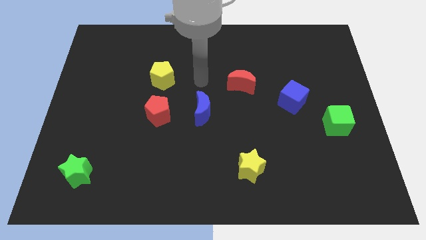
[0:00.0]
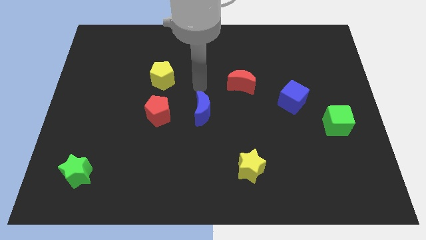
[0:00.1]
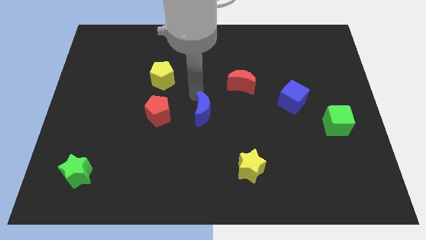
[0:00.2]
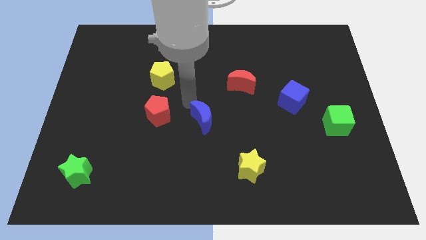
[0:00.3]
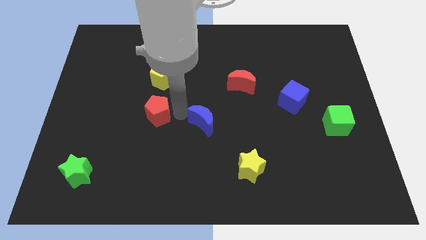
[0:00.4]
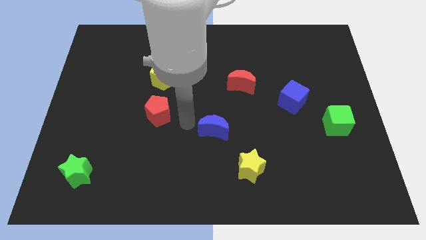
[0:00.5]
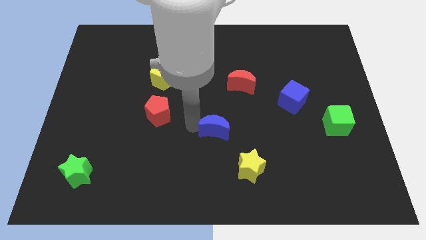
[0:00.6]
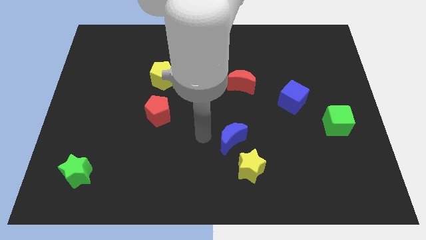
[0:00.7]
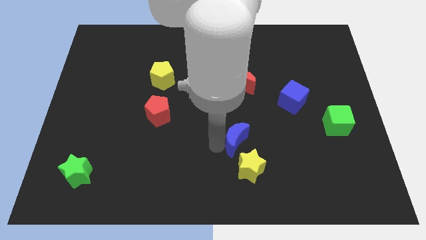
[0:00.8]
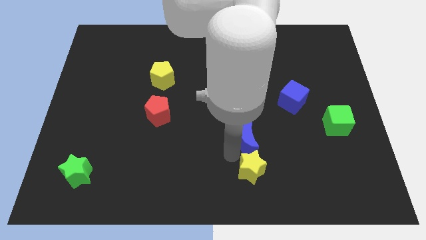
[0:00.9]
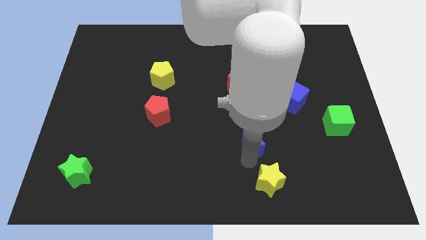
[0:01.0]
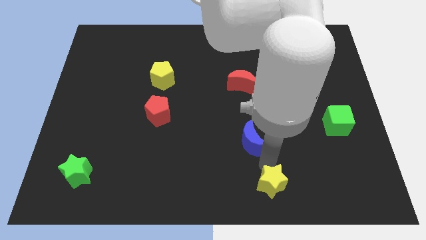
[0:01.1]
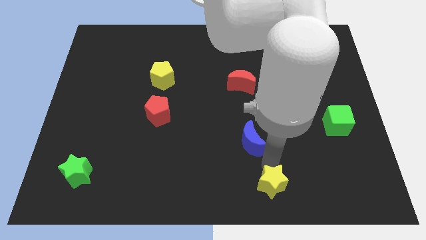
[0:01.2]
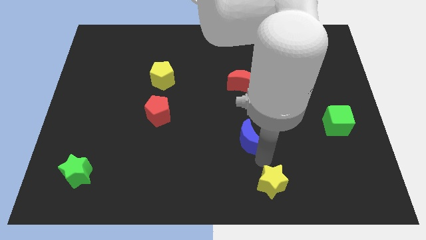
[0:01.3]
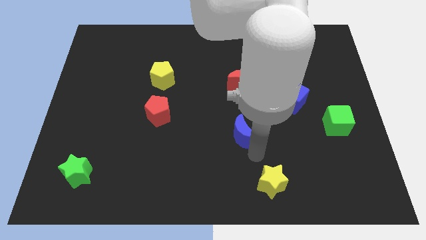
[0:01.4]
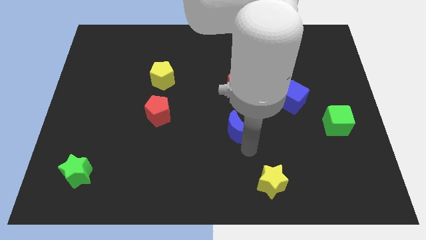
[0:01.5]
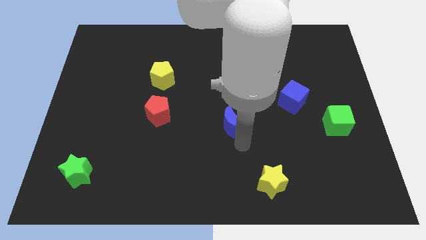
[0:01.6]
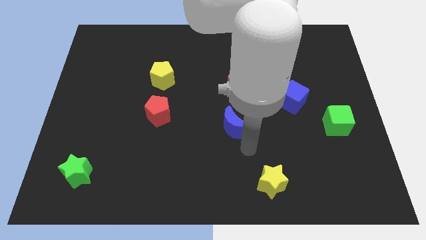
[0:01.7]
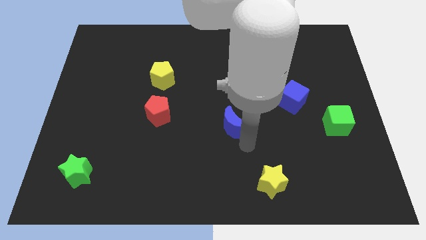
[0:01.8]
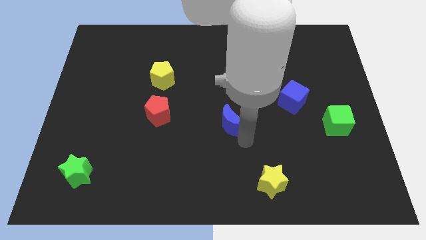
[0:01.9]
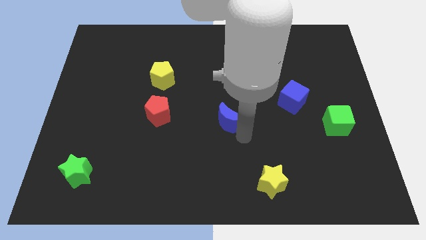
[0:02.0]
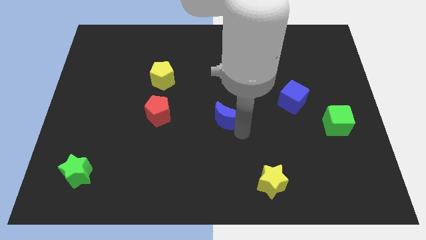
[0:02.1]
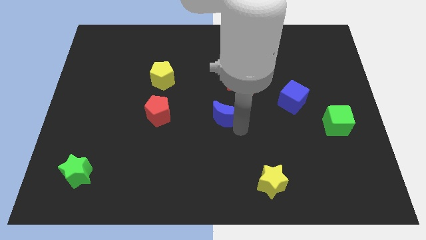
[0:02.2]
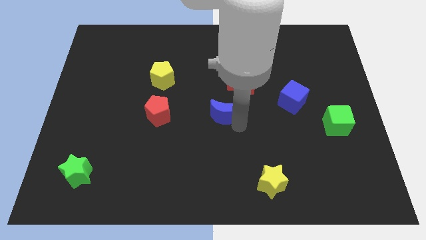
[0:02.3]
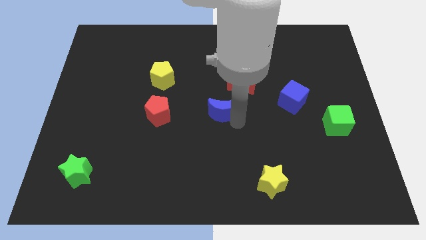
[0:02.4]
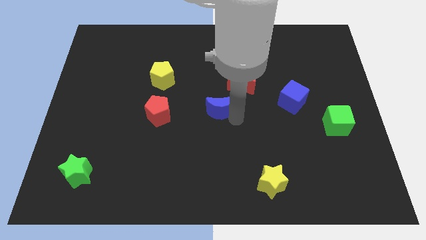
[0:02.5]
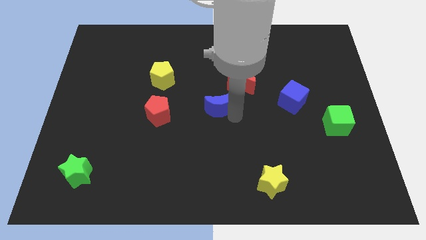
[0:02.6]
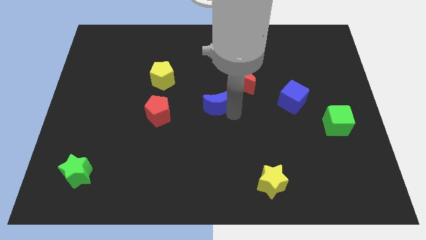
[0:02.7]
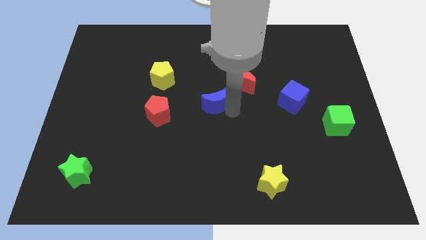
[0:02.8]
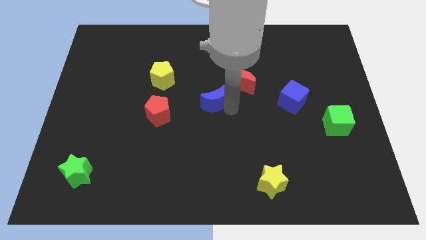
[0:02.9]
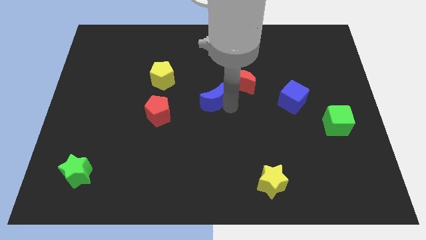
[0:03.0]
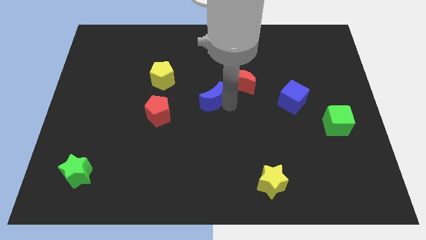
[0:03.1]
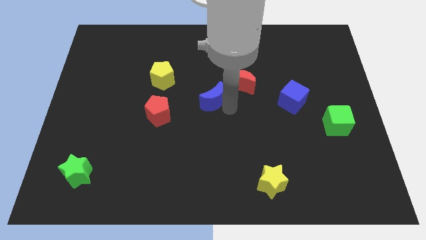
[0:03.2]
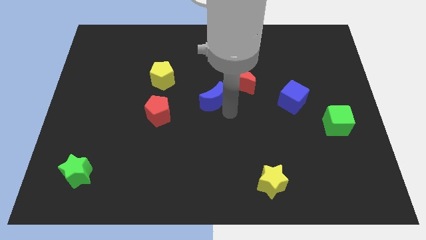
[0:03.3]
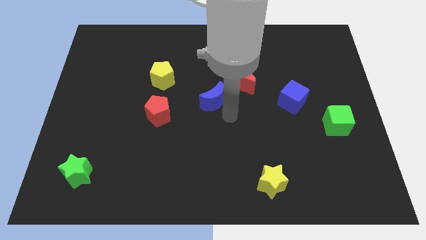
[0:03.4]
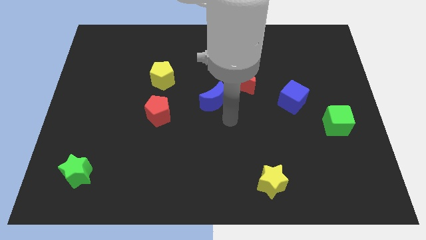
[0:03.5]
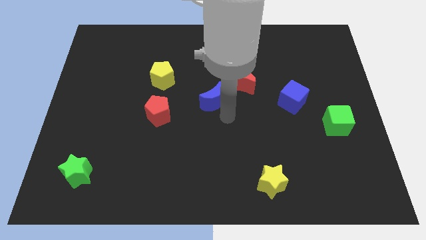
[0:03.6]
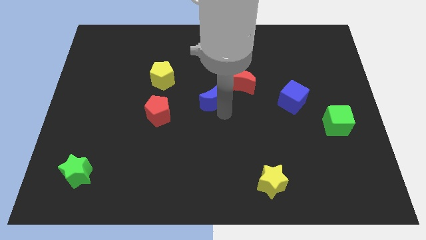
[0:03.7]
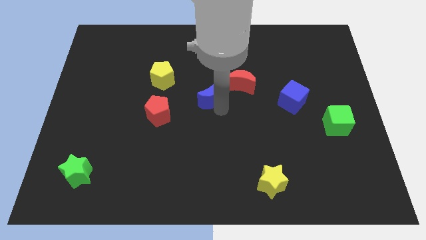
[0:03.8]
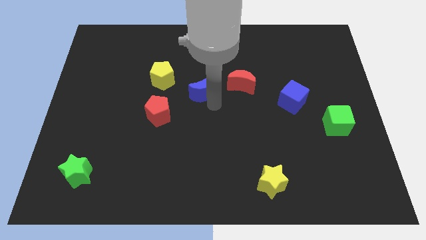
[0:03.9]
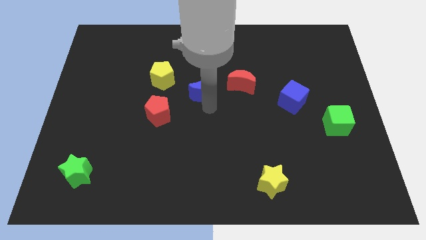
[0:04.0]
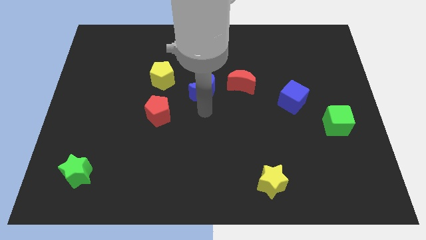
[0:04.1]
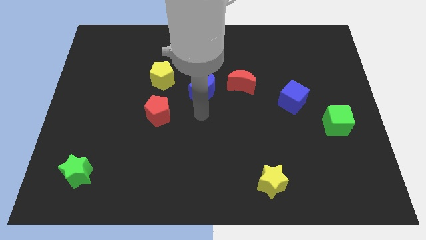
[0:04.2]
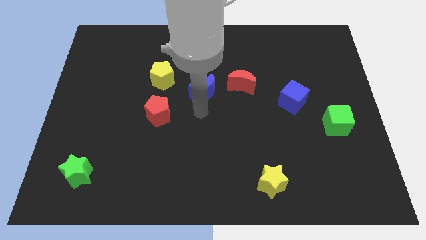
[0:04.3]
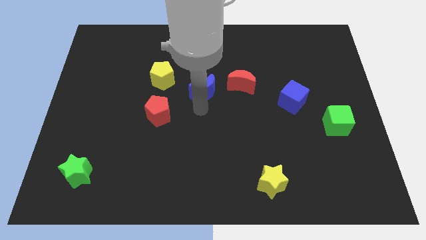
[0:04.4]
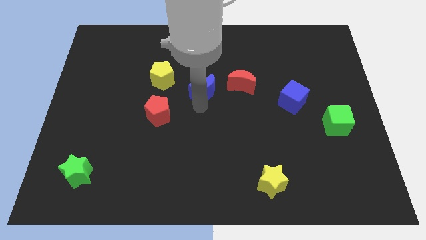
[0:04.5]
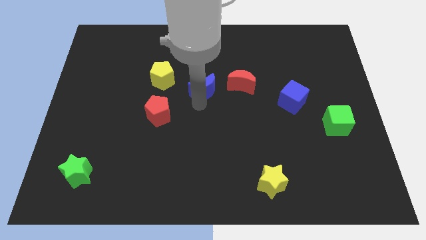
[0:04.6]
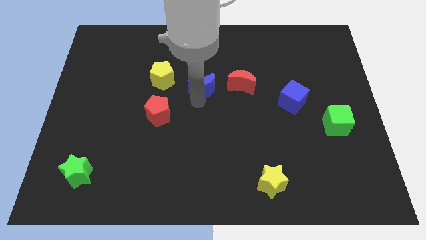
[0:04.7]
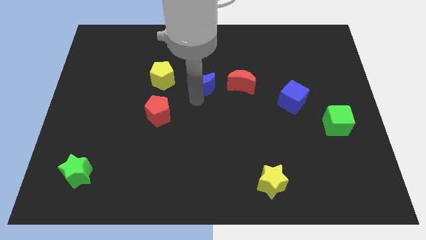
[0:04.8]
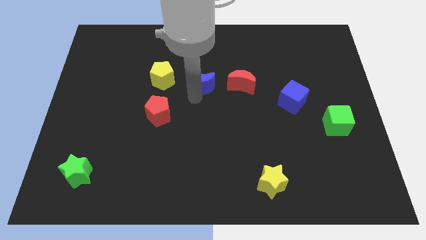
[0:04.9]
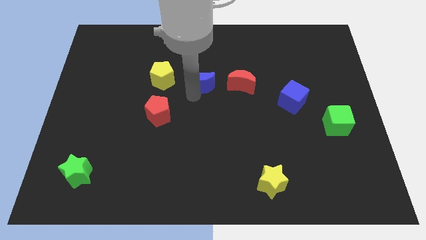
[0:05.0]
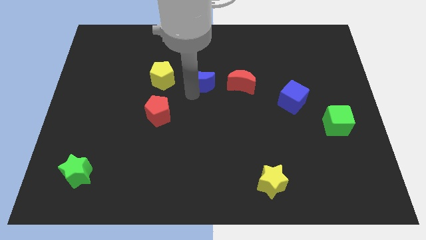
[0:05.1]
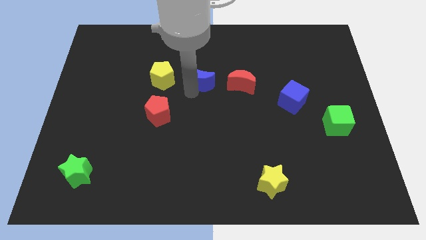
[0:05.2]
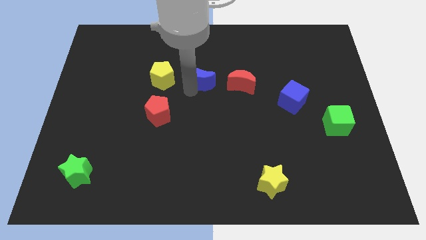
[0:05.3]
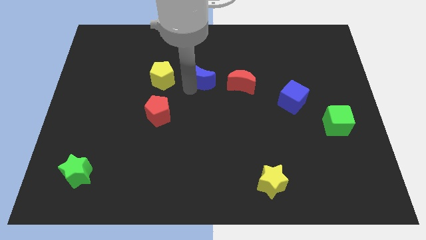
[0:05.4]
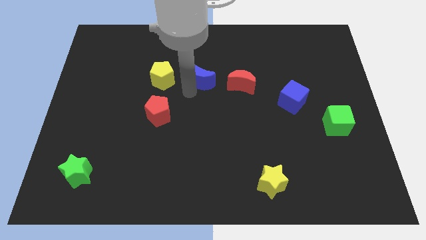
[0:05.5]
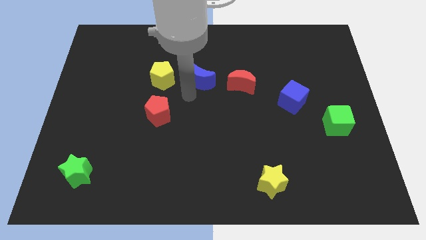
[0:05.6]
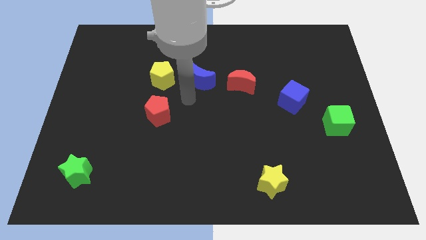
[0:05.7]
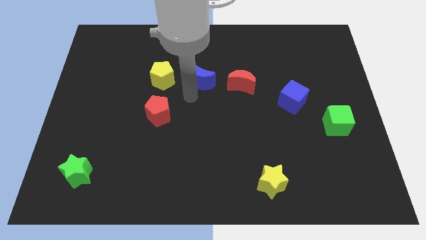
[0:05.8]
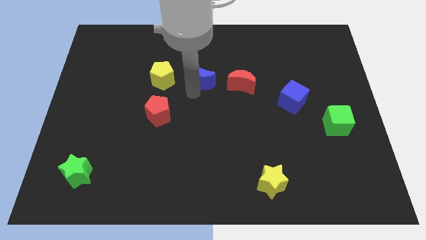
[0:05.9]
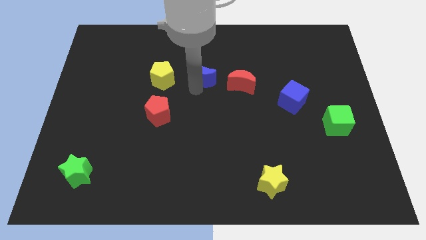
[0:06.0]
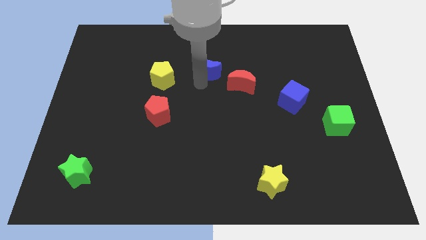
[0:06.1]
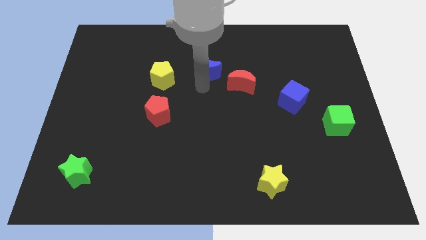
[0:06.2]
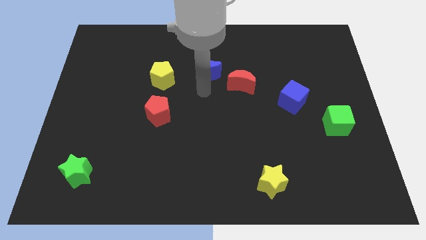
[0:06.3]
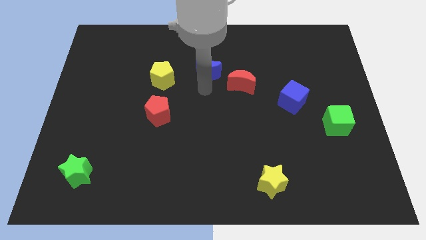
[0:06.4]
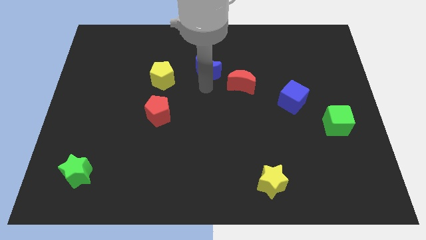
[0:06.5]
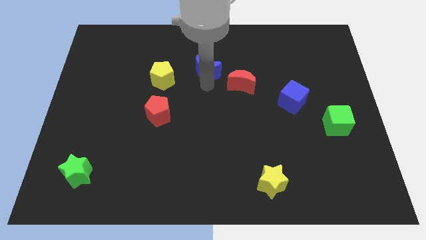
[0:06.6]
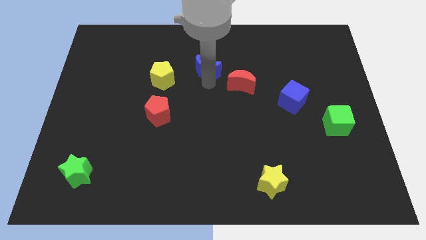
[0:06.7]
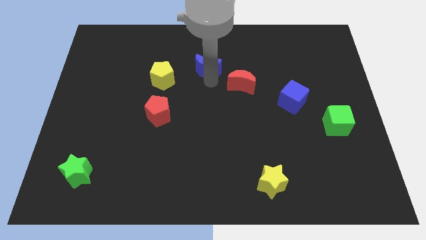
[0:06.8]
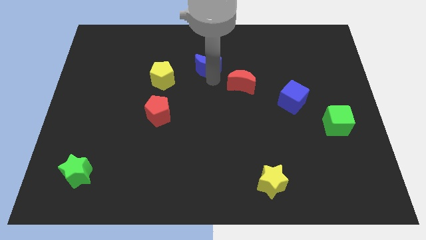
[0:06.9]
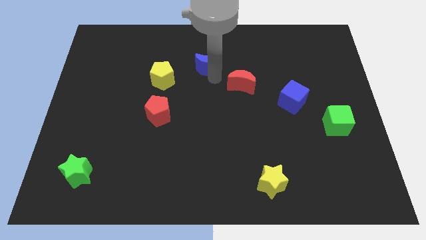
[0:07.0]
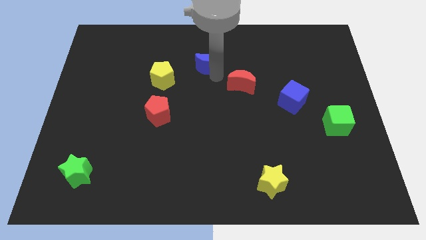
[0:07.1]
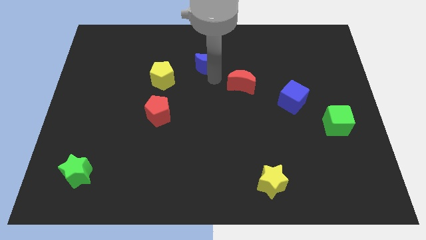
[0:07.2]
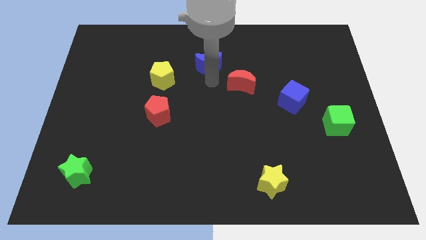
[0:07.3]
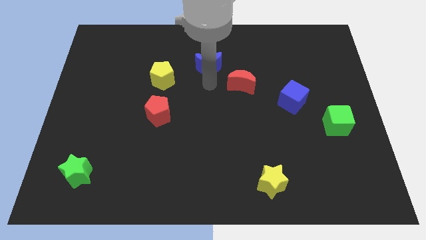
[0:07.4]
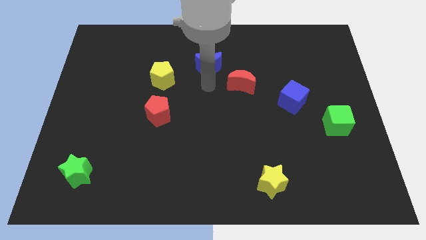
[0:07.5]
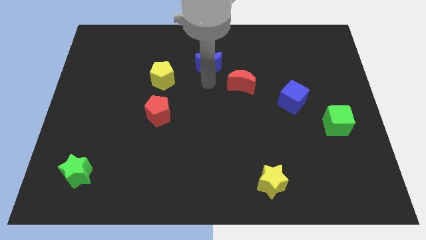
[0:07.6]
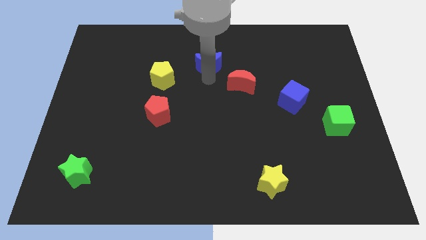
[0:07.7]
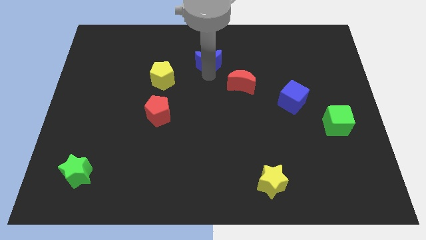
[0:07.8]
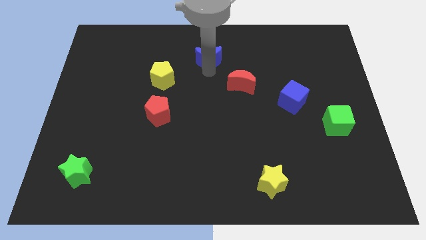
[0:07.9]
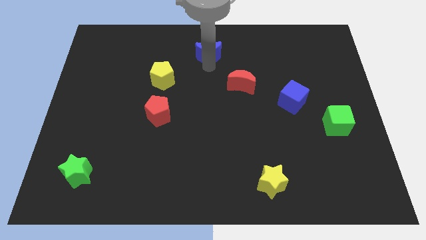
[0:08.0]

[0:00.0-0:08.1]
put the blue moon to the top side
